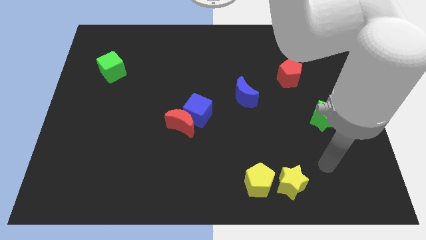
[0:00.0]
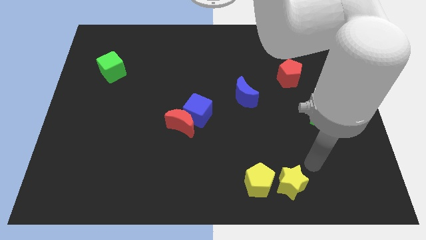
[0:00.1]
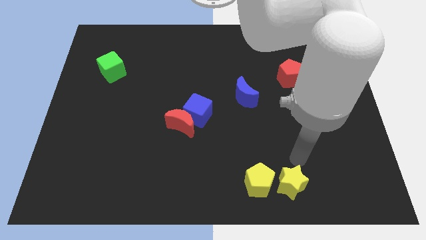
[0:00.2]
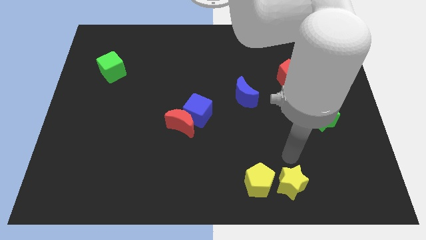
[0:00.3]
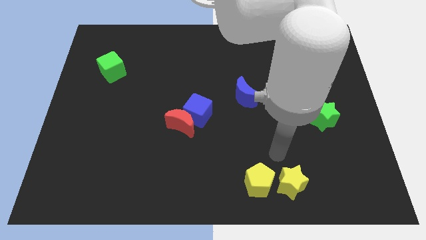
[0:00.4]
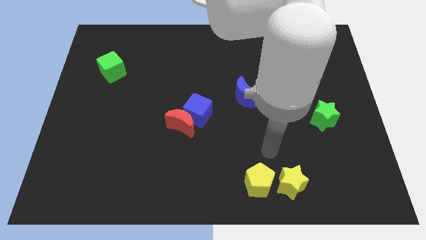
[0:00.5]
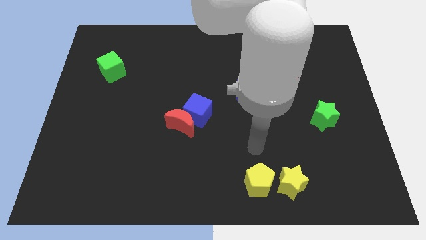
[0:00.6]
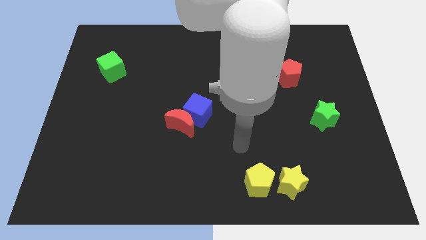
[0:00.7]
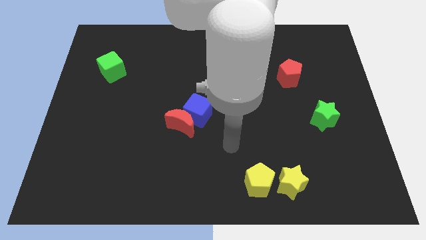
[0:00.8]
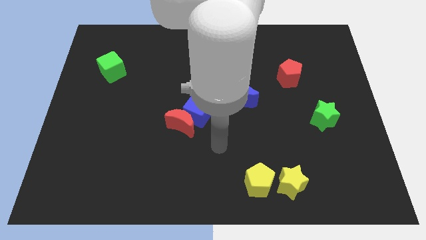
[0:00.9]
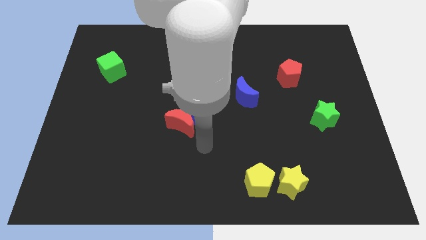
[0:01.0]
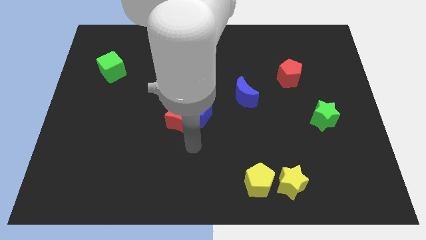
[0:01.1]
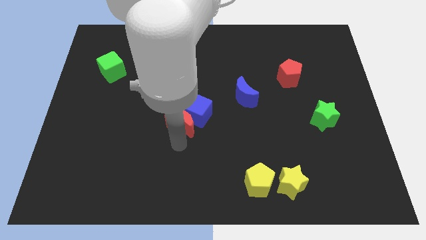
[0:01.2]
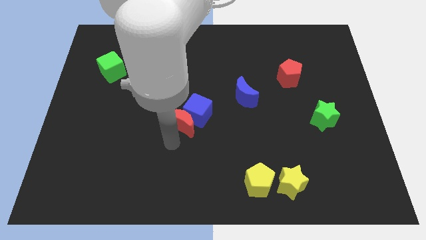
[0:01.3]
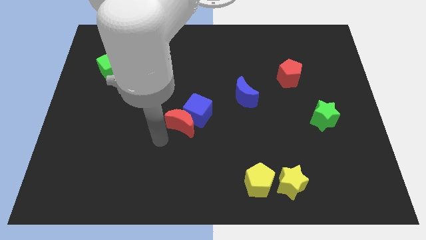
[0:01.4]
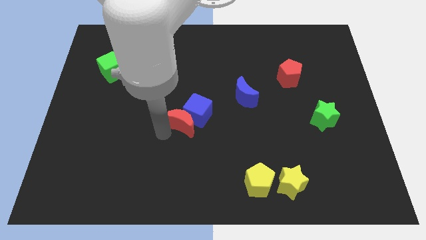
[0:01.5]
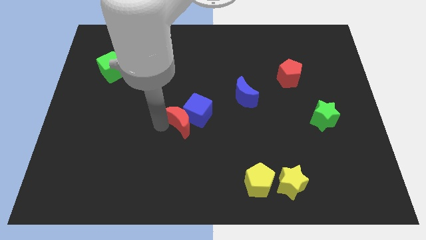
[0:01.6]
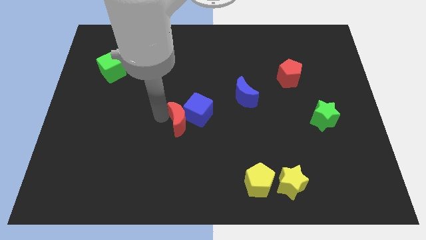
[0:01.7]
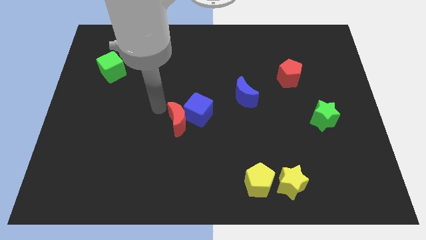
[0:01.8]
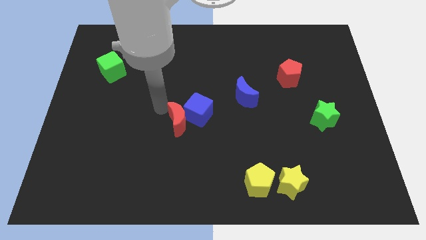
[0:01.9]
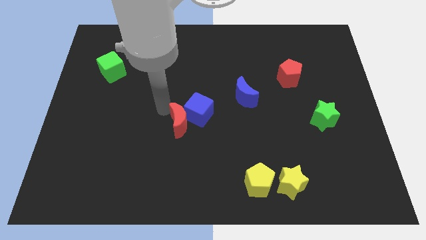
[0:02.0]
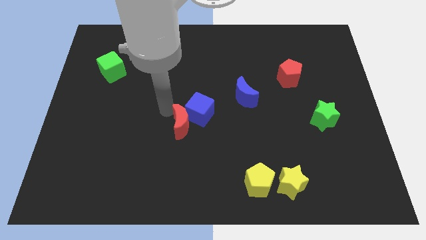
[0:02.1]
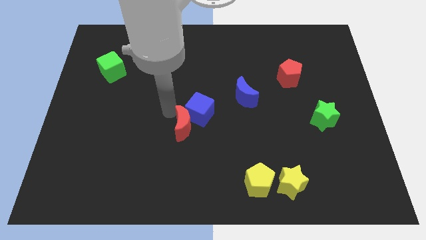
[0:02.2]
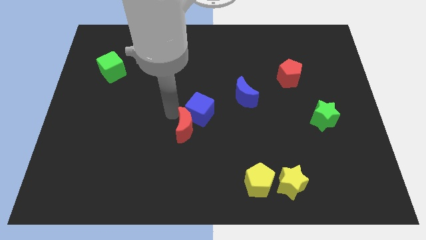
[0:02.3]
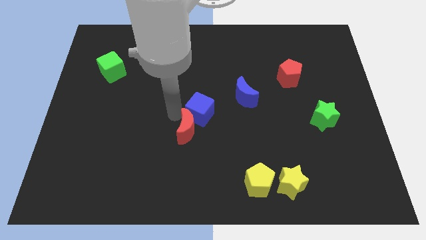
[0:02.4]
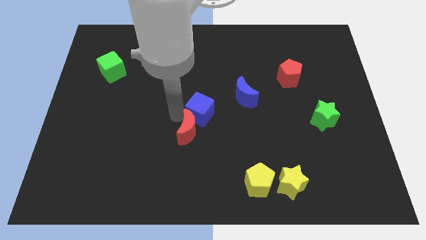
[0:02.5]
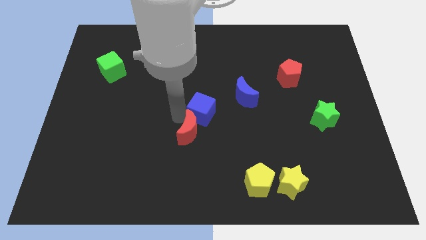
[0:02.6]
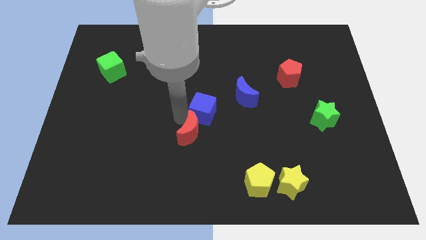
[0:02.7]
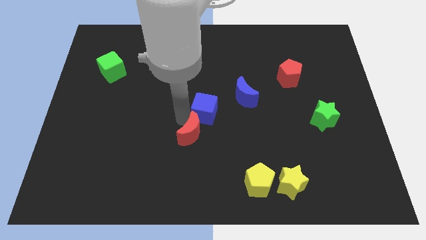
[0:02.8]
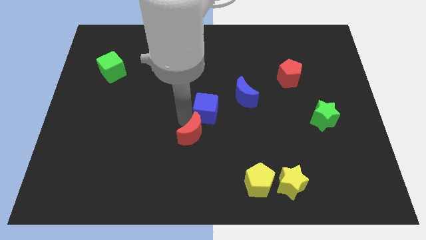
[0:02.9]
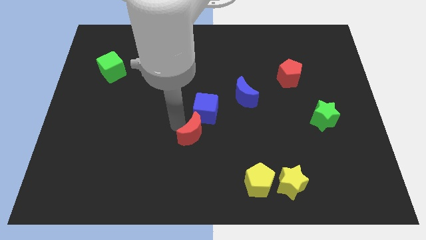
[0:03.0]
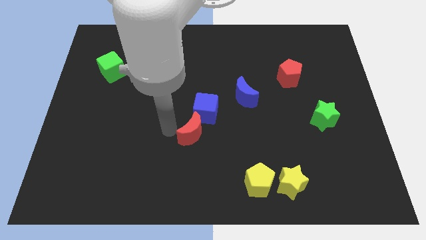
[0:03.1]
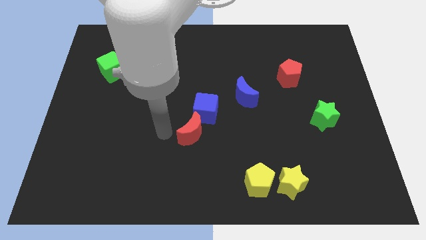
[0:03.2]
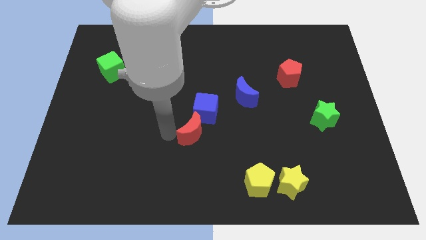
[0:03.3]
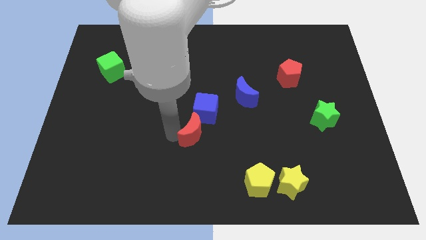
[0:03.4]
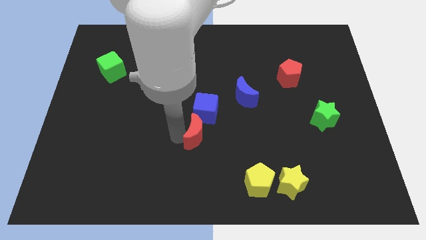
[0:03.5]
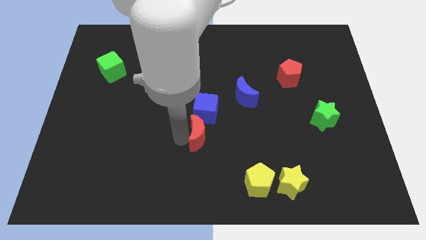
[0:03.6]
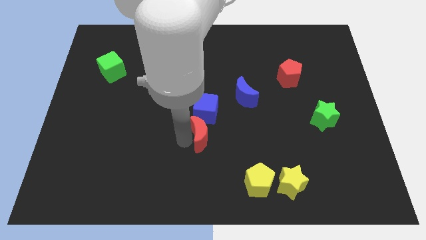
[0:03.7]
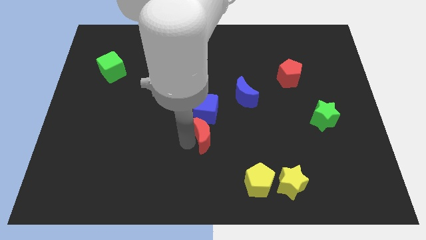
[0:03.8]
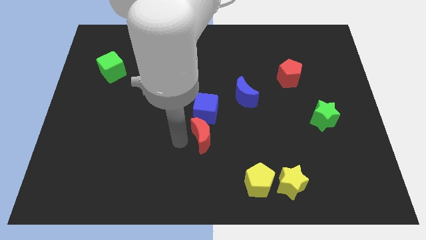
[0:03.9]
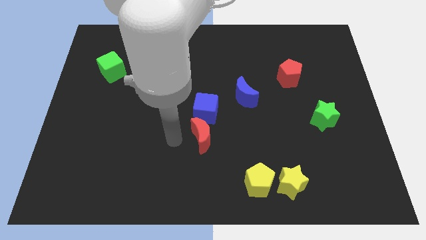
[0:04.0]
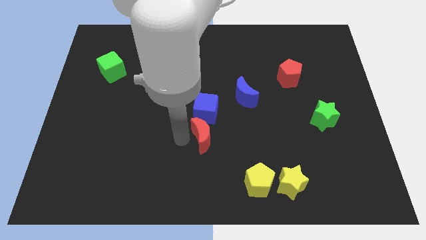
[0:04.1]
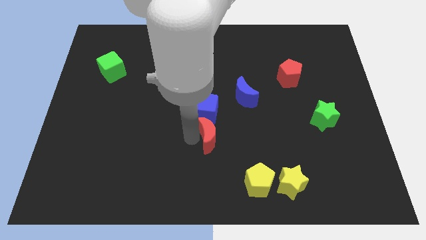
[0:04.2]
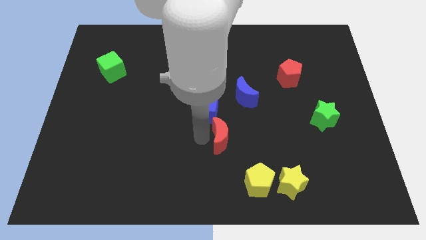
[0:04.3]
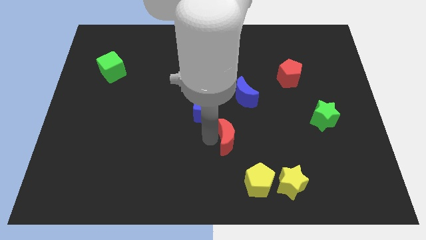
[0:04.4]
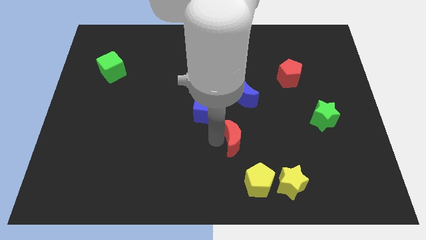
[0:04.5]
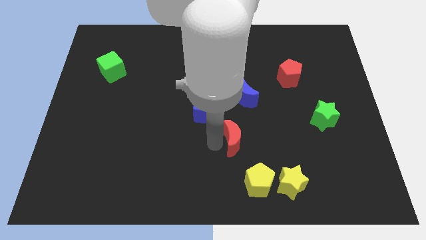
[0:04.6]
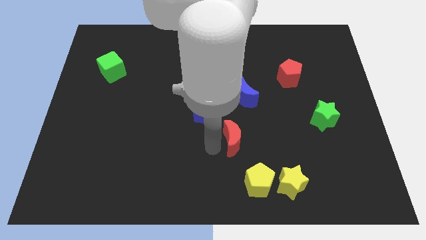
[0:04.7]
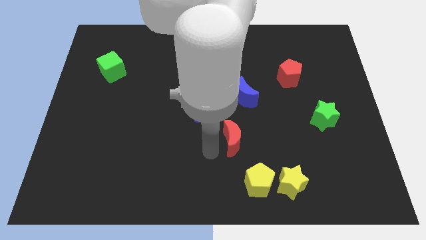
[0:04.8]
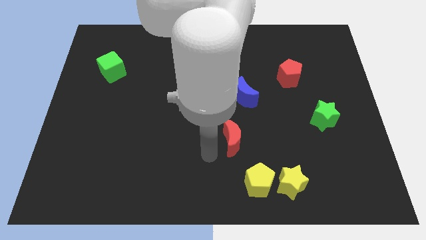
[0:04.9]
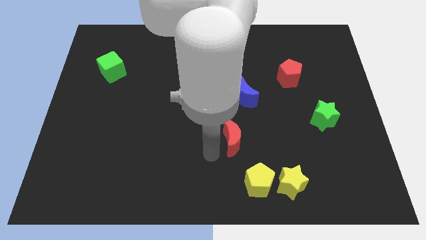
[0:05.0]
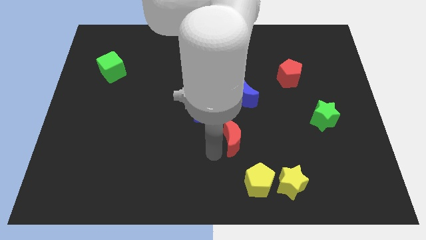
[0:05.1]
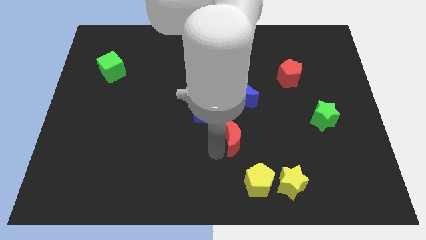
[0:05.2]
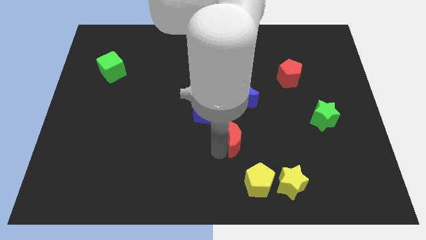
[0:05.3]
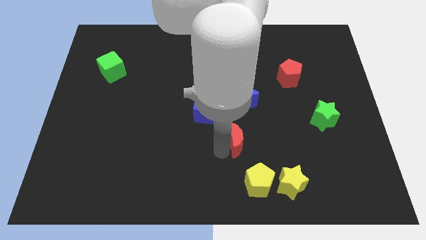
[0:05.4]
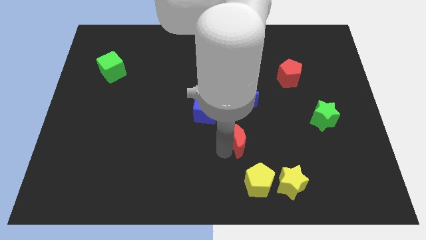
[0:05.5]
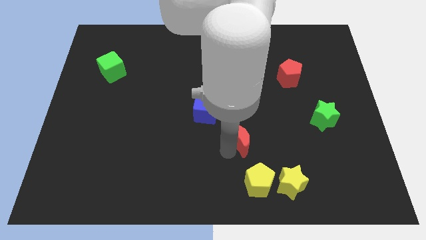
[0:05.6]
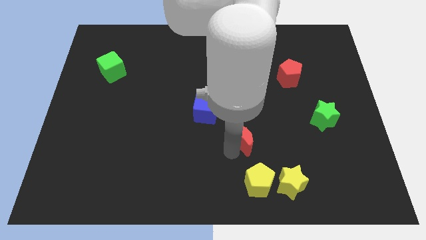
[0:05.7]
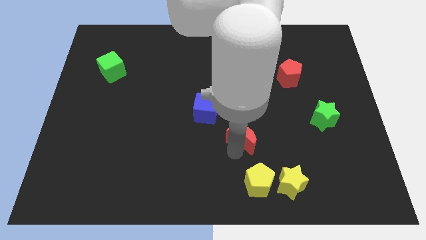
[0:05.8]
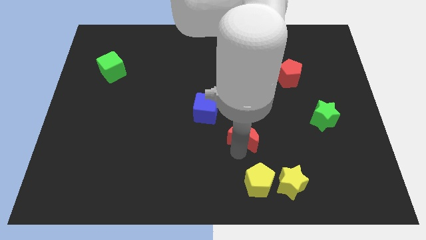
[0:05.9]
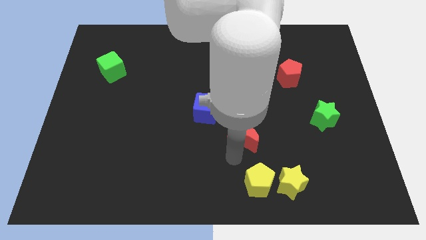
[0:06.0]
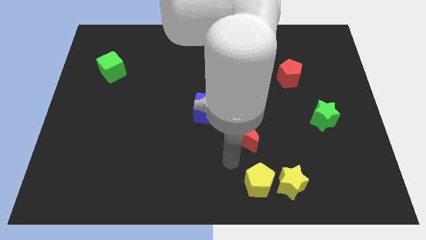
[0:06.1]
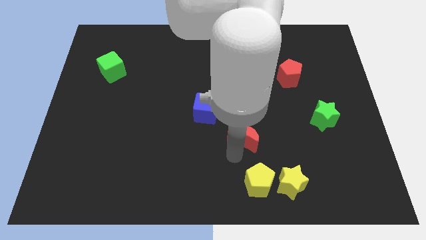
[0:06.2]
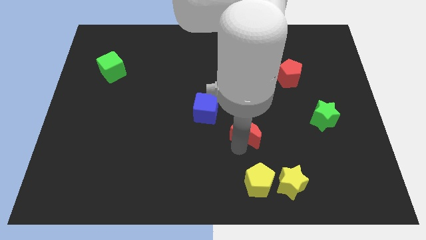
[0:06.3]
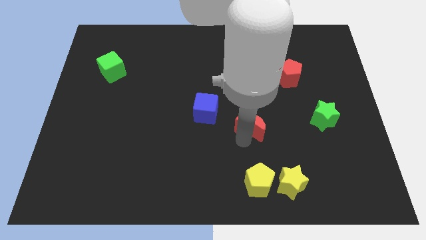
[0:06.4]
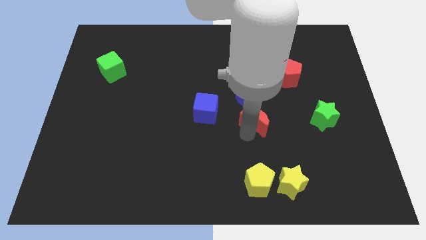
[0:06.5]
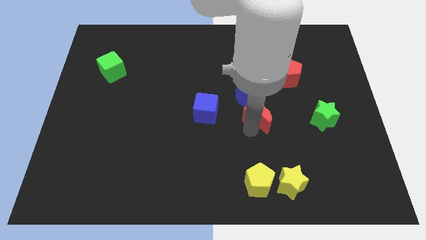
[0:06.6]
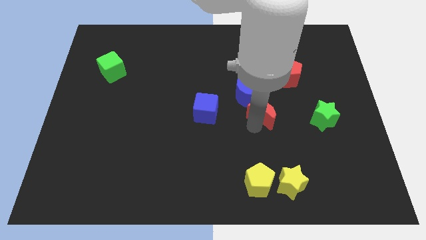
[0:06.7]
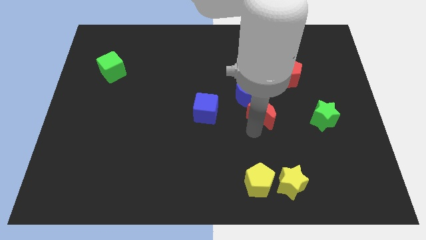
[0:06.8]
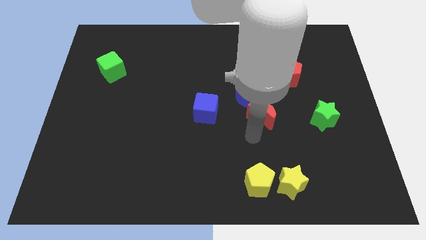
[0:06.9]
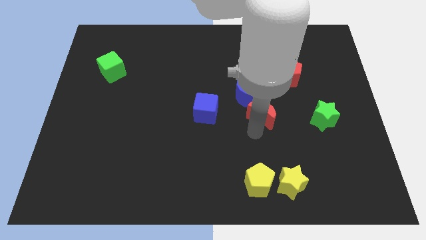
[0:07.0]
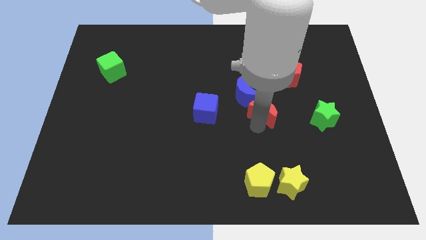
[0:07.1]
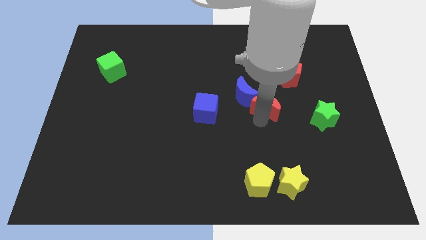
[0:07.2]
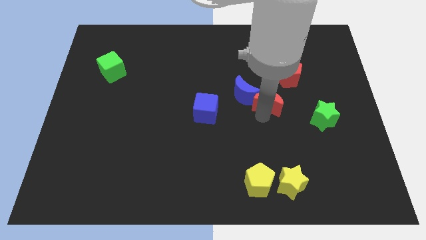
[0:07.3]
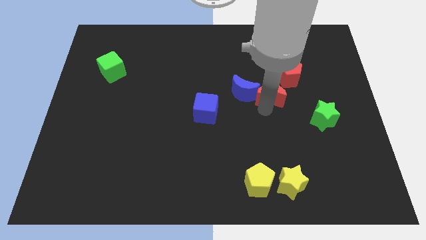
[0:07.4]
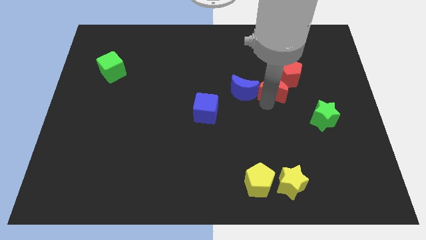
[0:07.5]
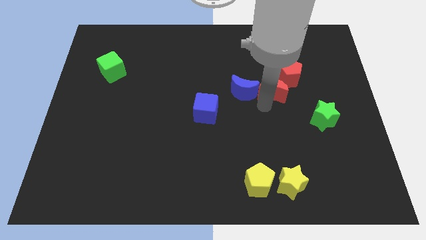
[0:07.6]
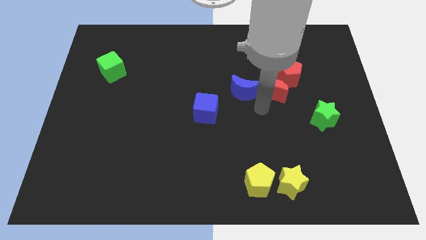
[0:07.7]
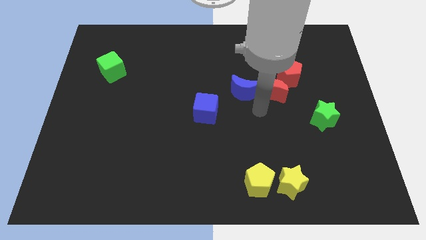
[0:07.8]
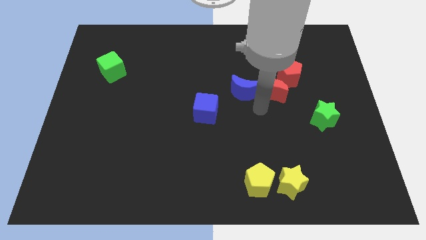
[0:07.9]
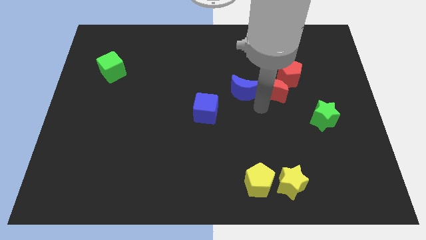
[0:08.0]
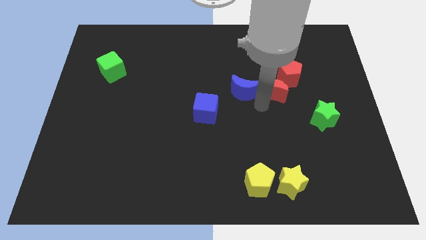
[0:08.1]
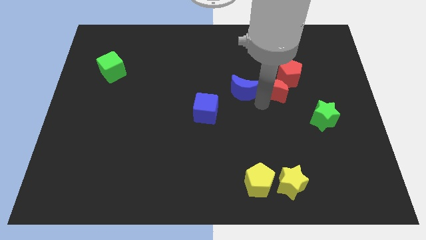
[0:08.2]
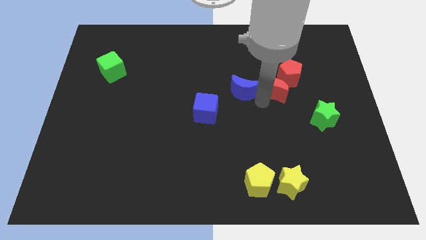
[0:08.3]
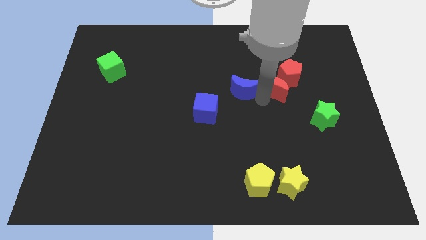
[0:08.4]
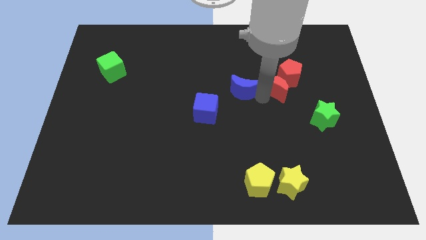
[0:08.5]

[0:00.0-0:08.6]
slide the red moon next to the red pentagon

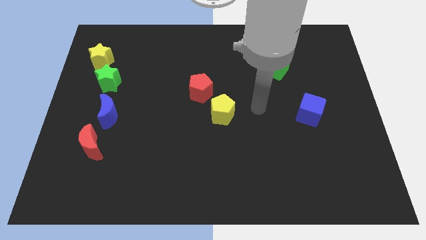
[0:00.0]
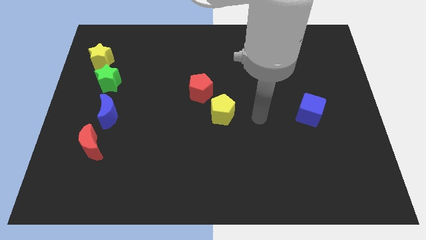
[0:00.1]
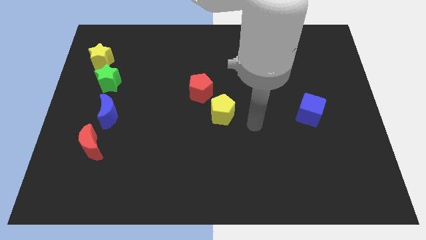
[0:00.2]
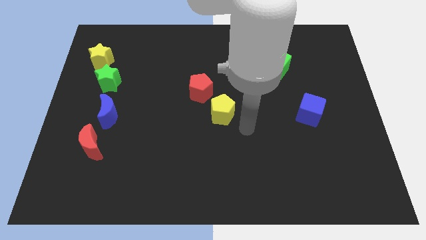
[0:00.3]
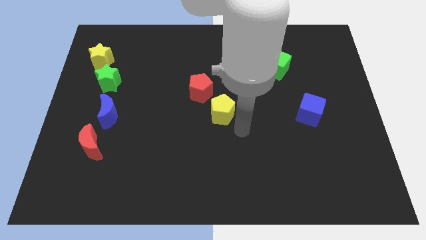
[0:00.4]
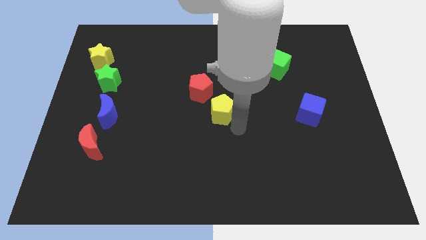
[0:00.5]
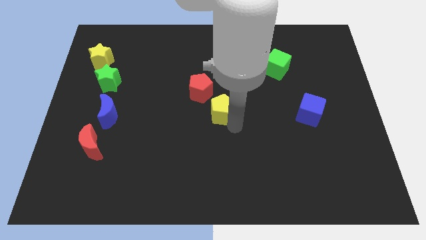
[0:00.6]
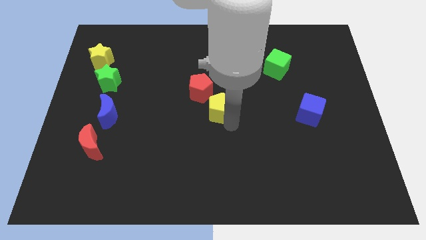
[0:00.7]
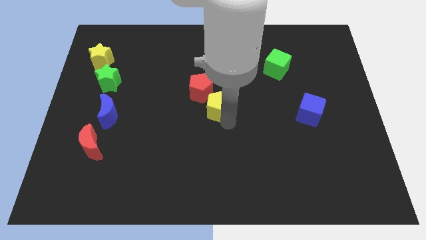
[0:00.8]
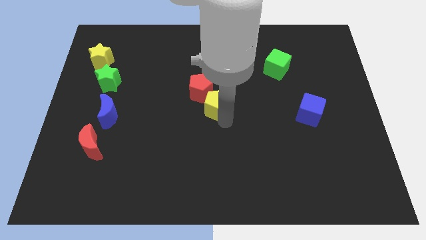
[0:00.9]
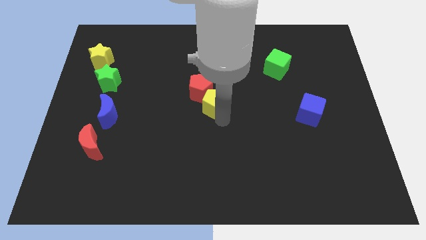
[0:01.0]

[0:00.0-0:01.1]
push the yellow pentagon towards the red pentagon
